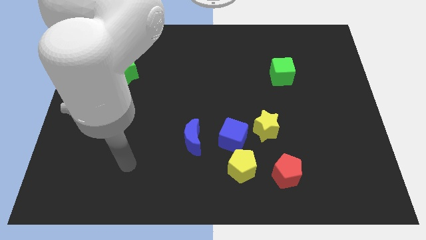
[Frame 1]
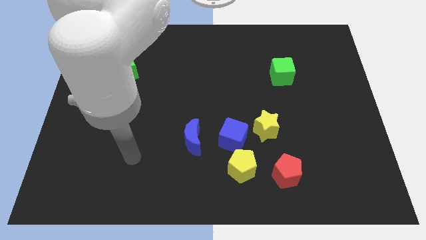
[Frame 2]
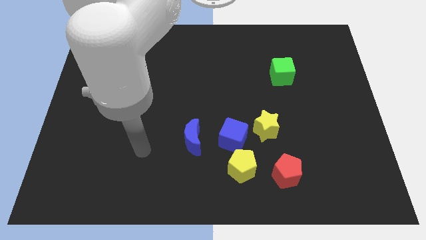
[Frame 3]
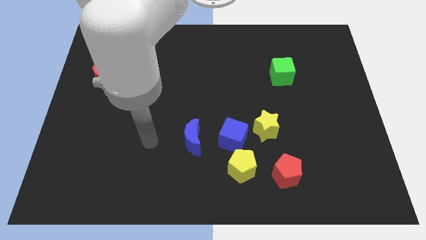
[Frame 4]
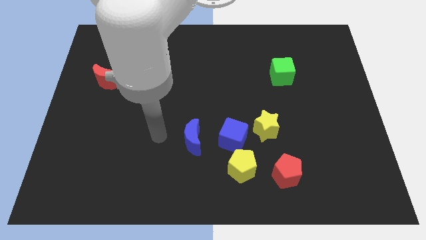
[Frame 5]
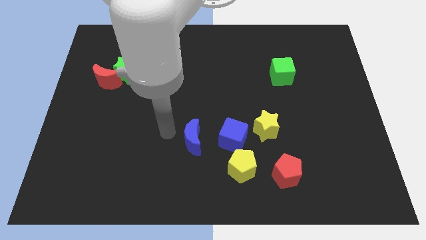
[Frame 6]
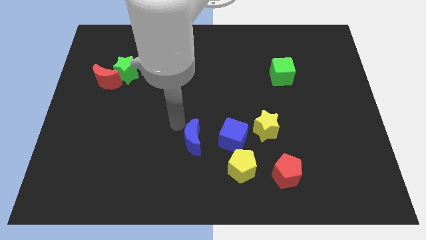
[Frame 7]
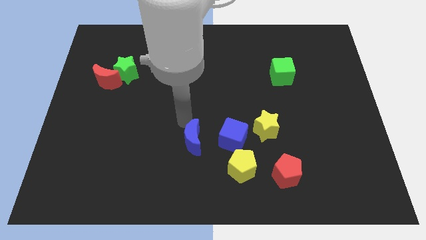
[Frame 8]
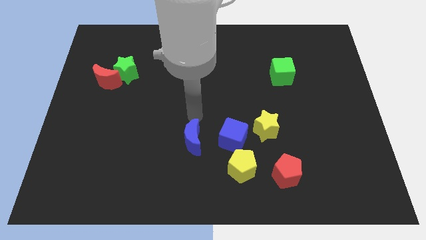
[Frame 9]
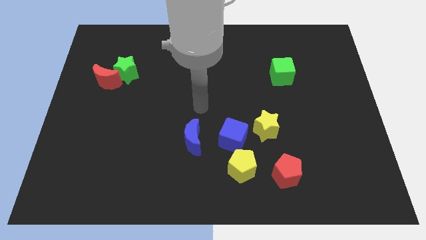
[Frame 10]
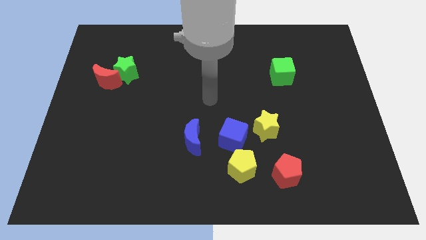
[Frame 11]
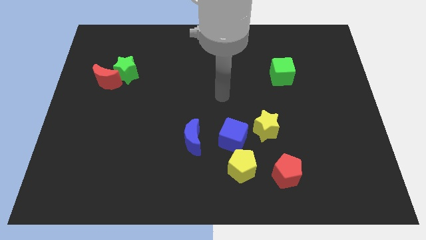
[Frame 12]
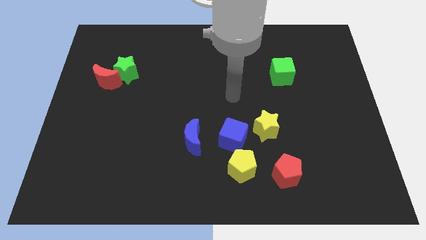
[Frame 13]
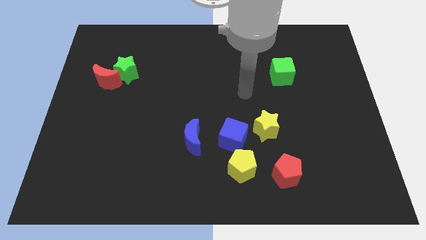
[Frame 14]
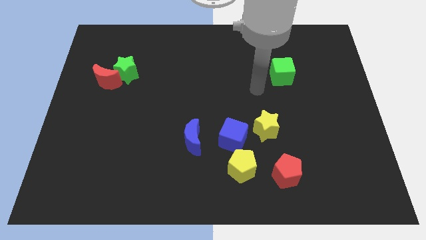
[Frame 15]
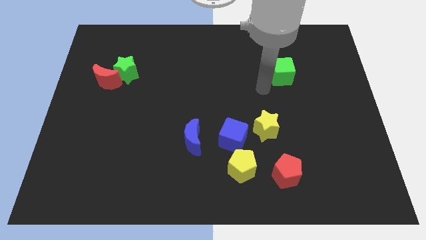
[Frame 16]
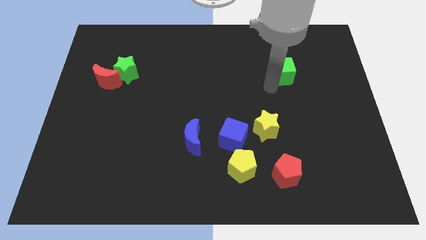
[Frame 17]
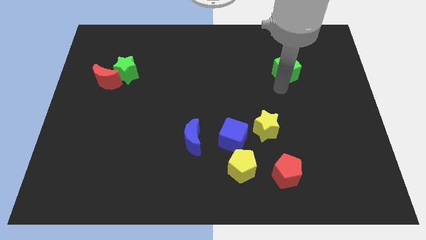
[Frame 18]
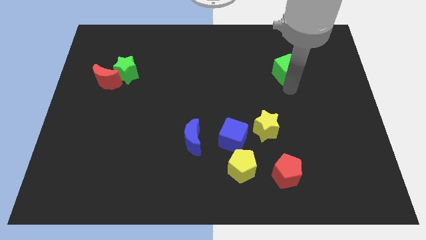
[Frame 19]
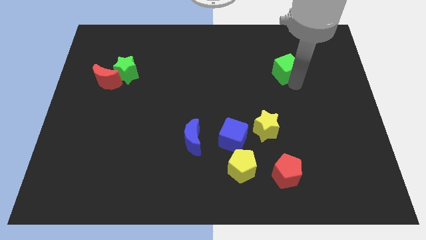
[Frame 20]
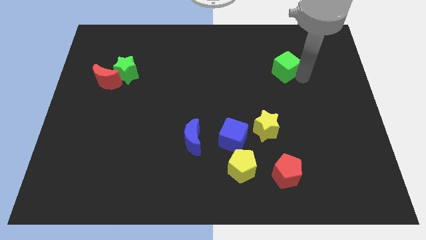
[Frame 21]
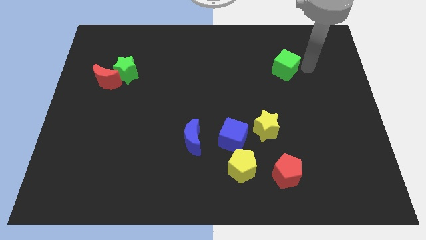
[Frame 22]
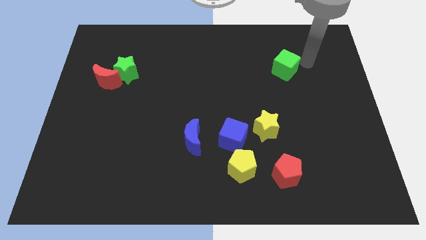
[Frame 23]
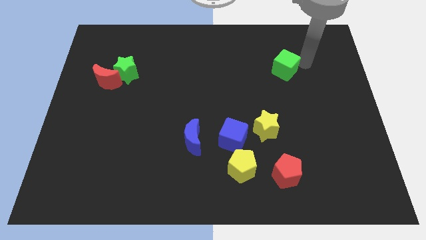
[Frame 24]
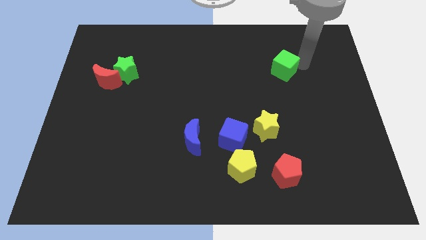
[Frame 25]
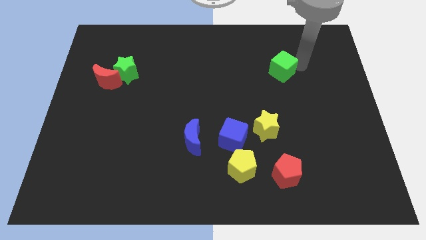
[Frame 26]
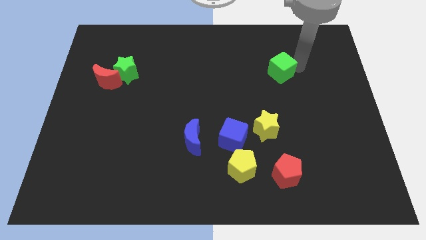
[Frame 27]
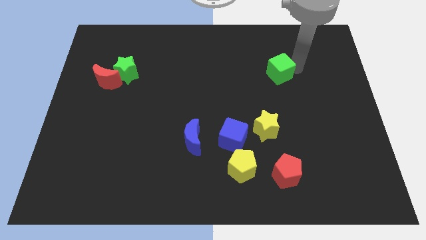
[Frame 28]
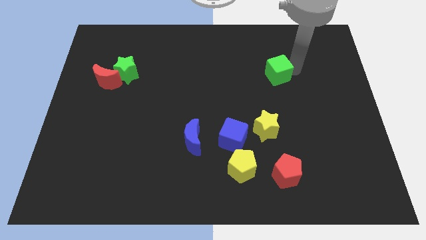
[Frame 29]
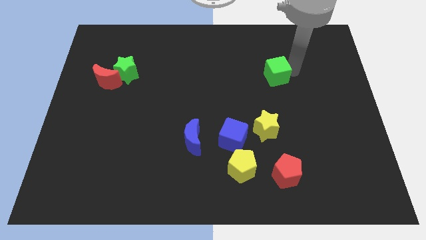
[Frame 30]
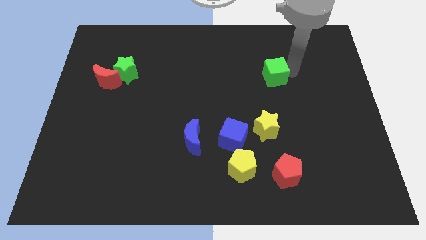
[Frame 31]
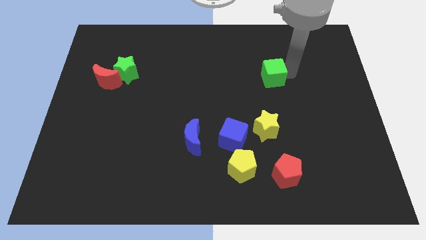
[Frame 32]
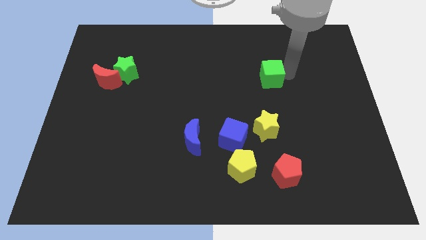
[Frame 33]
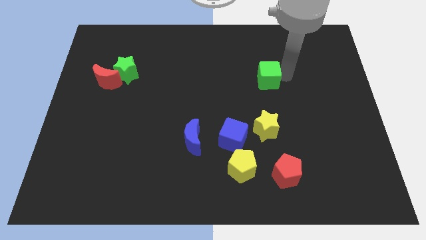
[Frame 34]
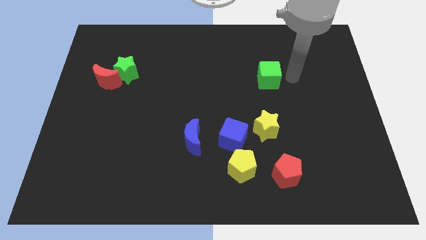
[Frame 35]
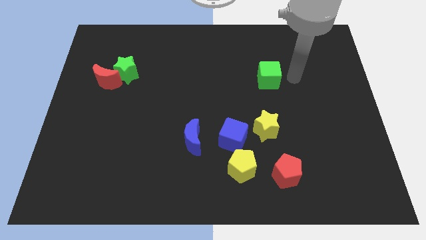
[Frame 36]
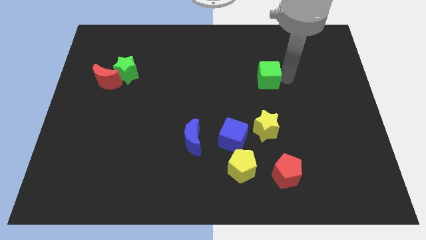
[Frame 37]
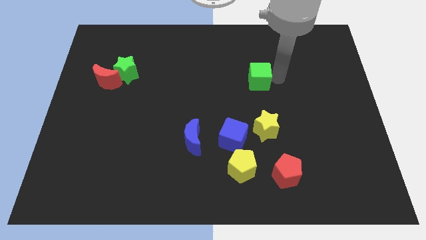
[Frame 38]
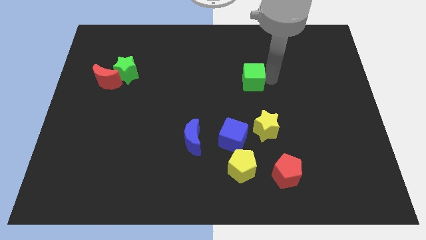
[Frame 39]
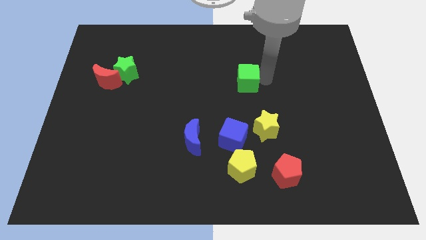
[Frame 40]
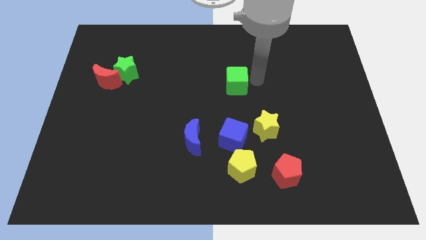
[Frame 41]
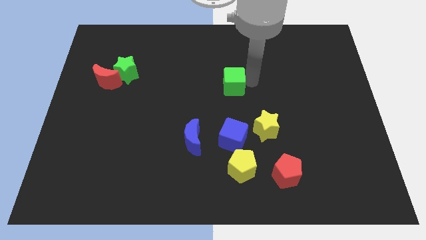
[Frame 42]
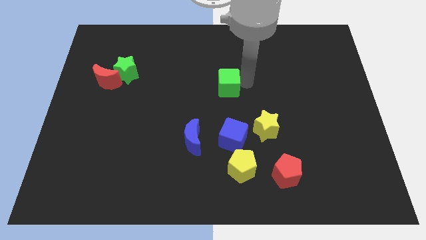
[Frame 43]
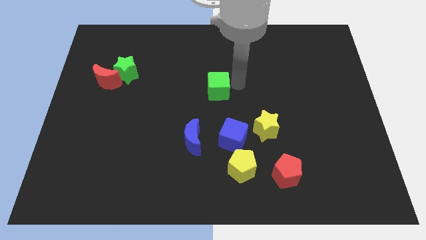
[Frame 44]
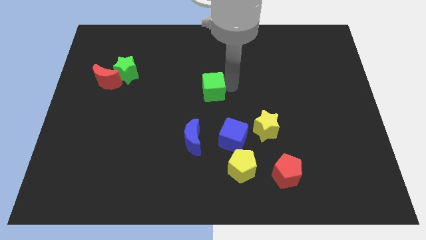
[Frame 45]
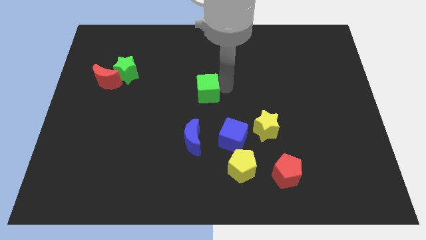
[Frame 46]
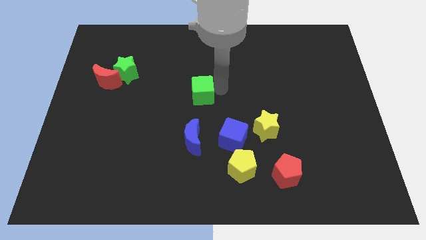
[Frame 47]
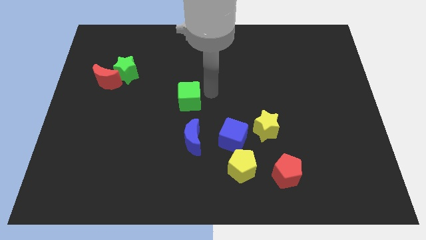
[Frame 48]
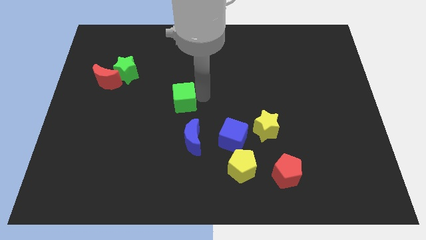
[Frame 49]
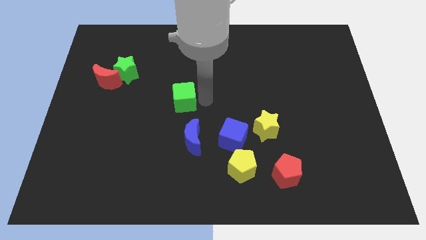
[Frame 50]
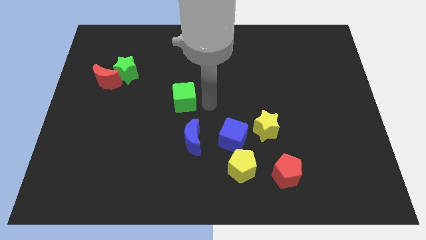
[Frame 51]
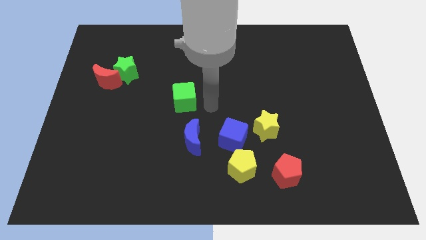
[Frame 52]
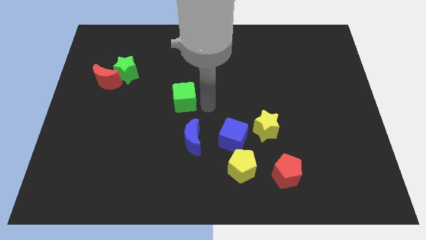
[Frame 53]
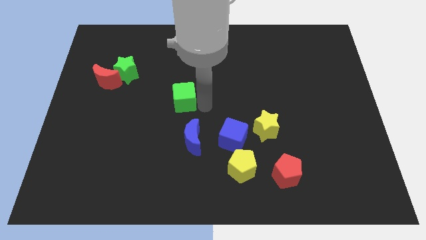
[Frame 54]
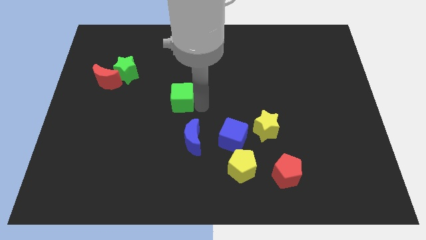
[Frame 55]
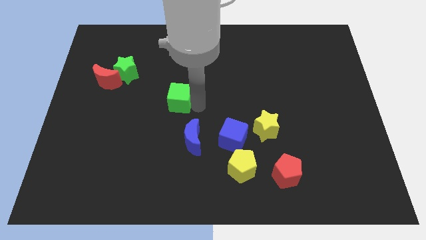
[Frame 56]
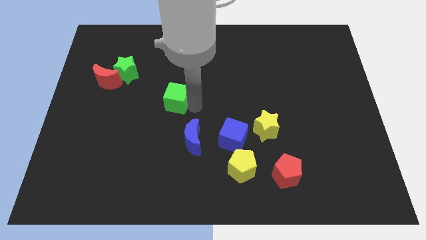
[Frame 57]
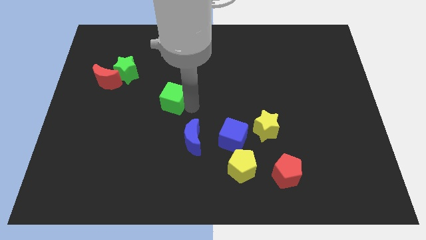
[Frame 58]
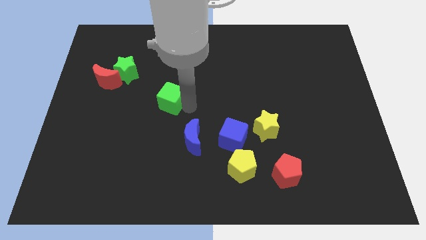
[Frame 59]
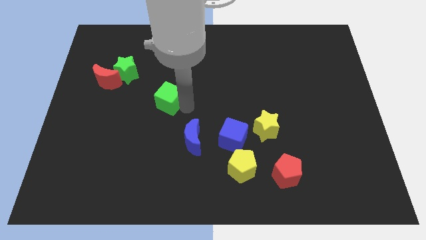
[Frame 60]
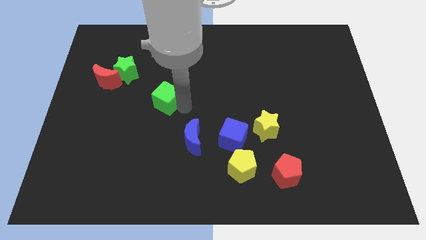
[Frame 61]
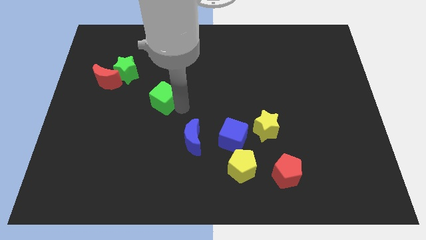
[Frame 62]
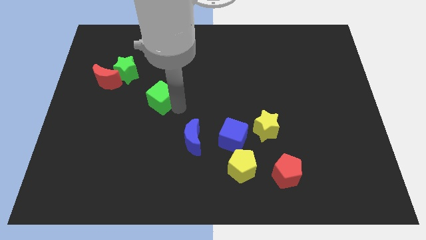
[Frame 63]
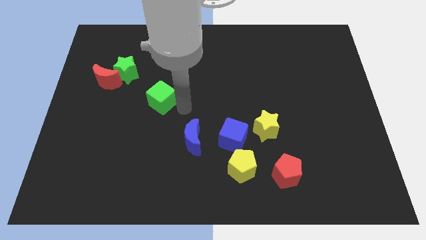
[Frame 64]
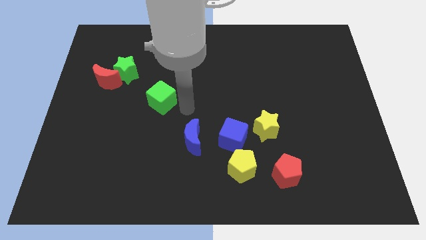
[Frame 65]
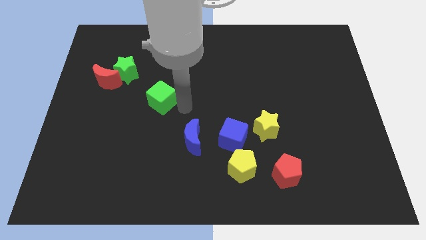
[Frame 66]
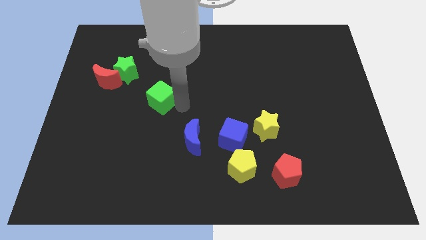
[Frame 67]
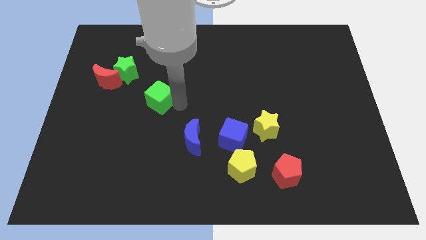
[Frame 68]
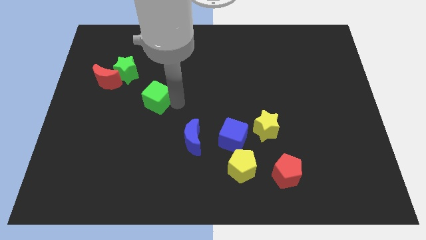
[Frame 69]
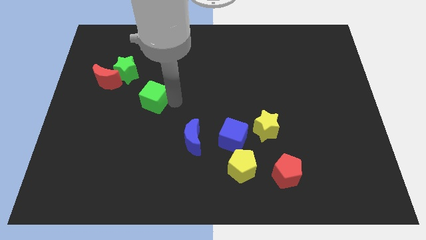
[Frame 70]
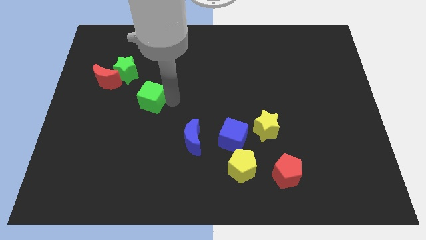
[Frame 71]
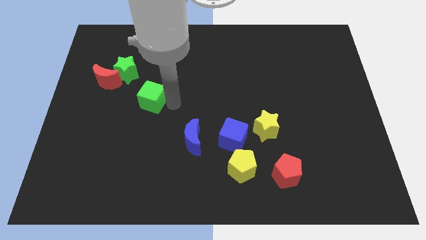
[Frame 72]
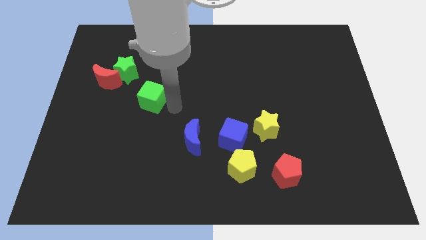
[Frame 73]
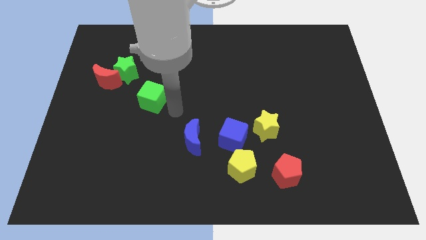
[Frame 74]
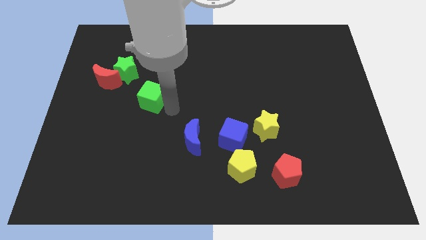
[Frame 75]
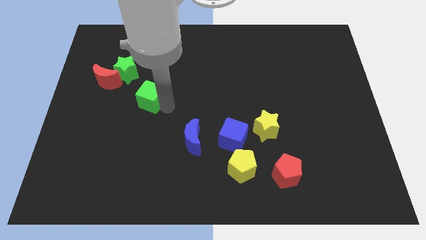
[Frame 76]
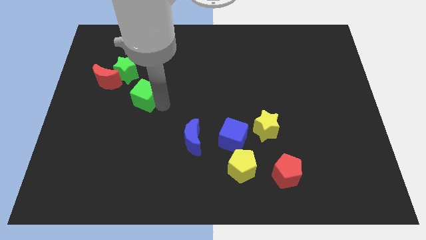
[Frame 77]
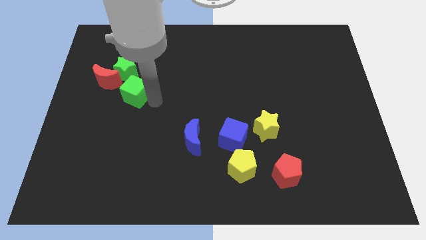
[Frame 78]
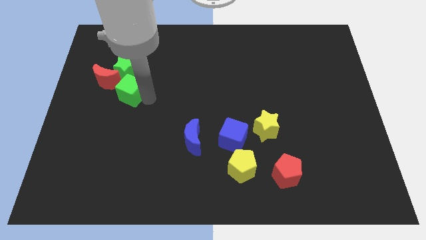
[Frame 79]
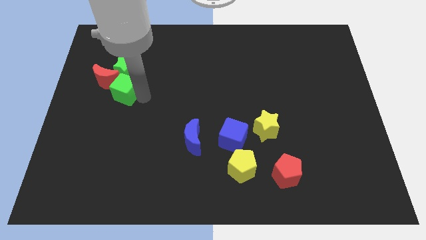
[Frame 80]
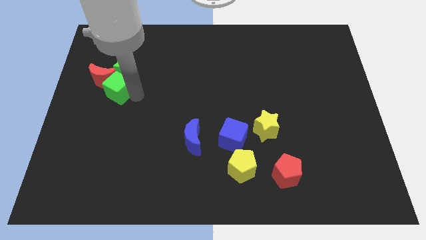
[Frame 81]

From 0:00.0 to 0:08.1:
put the green cube close to the red moon
